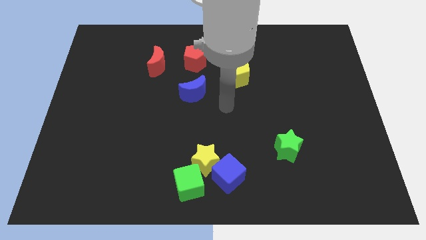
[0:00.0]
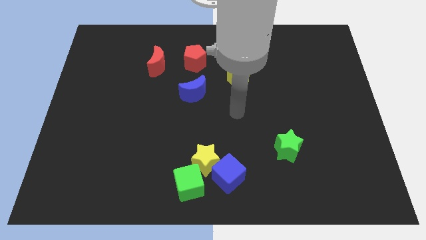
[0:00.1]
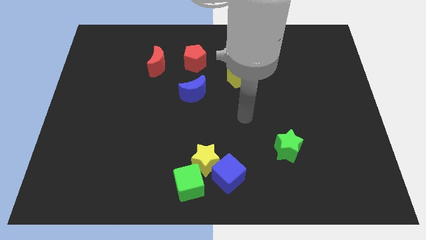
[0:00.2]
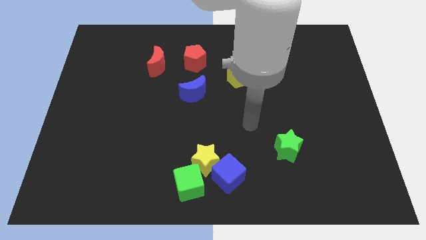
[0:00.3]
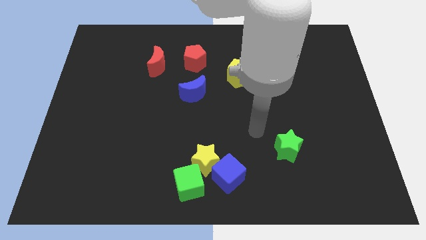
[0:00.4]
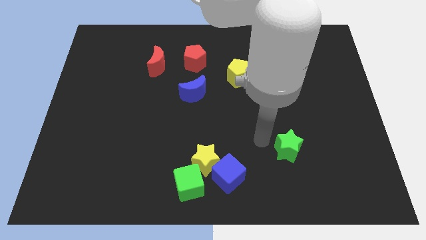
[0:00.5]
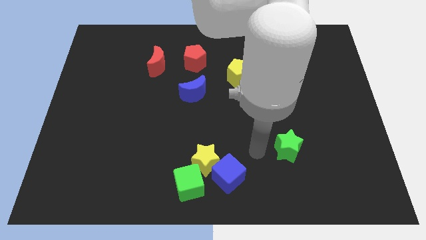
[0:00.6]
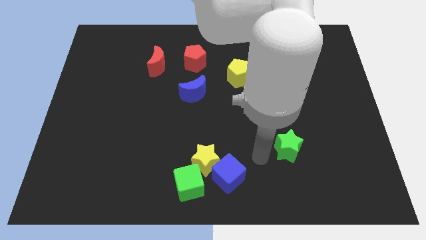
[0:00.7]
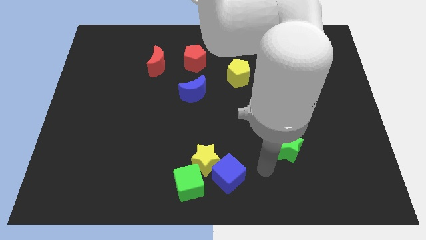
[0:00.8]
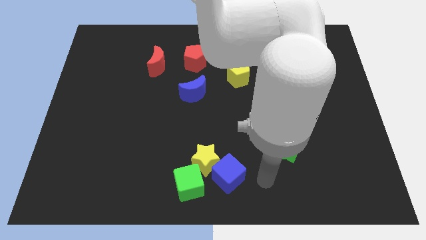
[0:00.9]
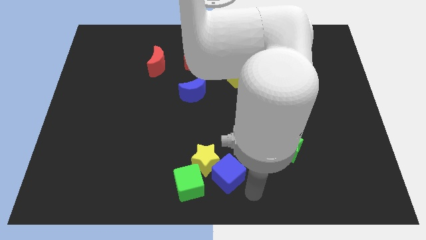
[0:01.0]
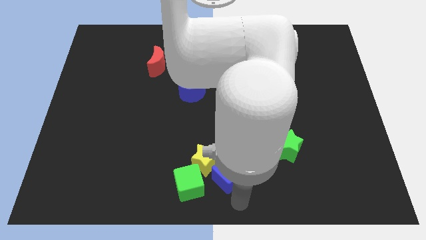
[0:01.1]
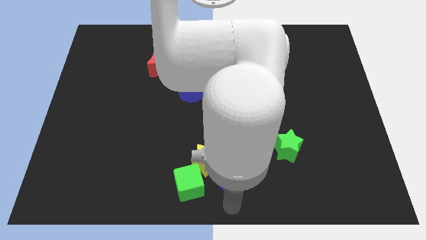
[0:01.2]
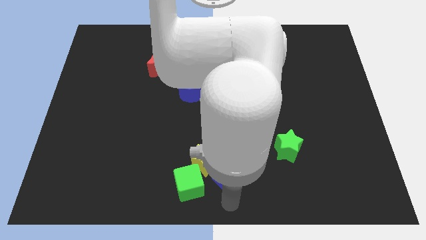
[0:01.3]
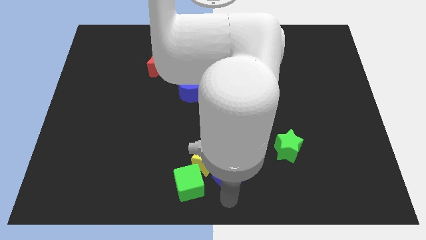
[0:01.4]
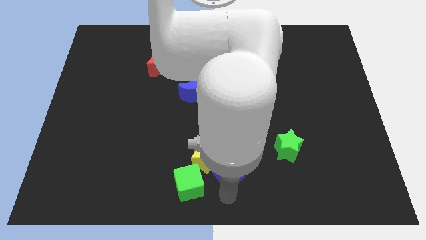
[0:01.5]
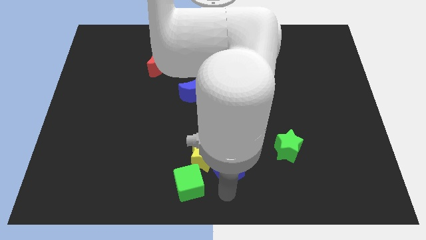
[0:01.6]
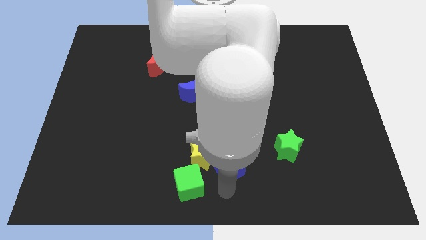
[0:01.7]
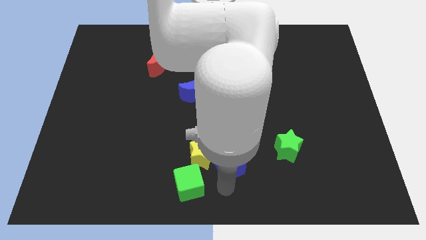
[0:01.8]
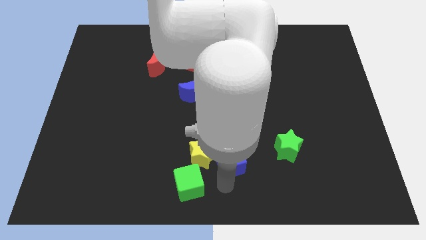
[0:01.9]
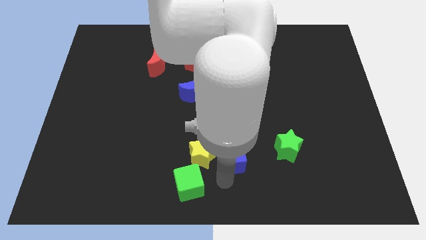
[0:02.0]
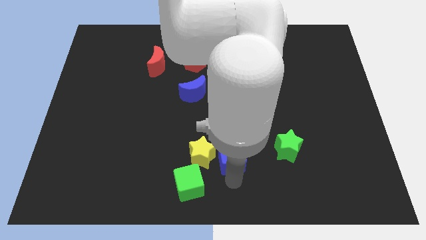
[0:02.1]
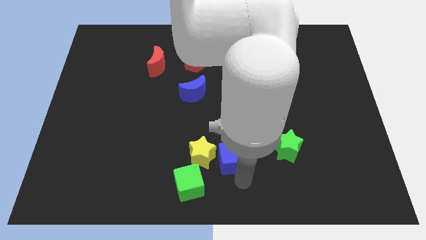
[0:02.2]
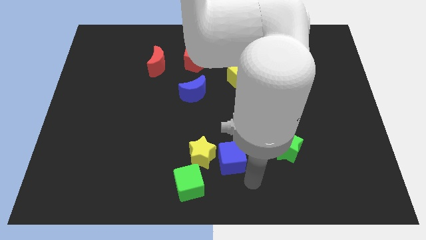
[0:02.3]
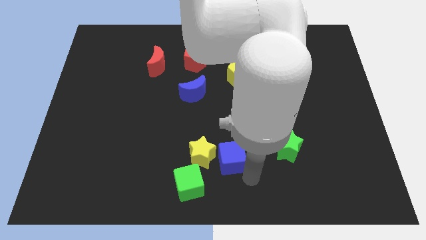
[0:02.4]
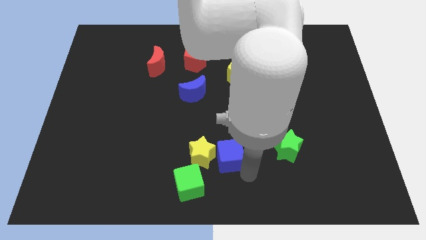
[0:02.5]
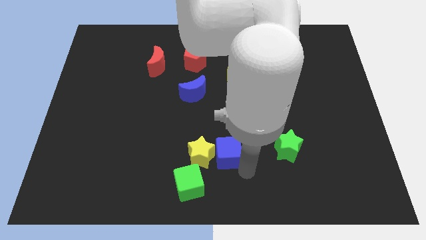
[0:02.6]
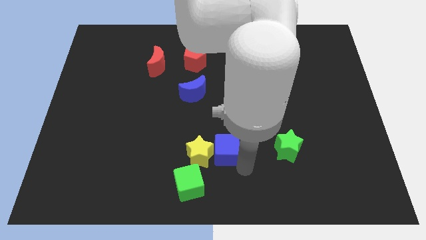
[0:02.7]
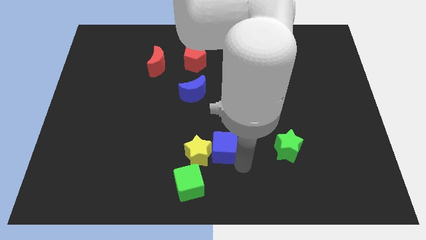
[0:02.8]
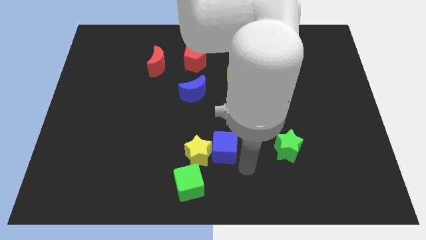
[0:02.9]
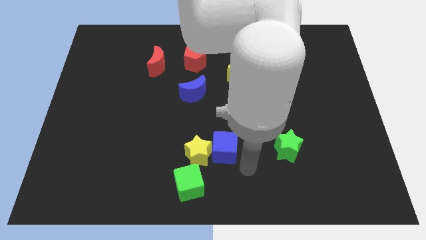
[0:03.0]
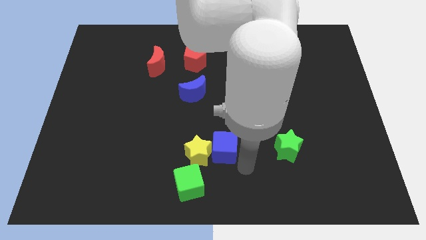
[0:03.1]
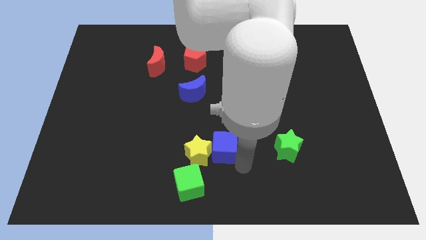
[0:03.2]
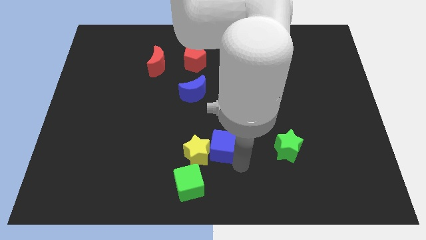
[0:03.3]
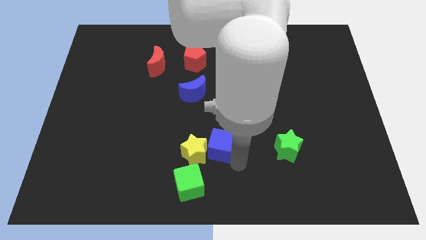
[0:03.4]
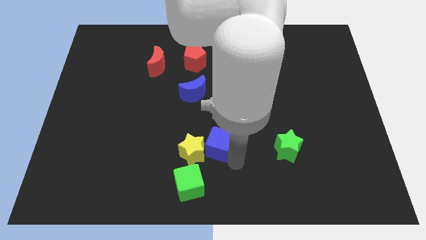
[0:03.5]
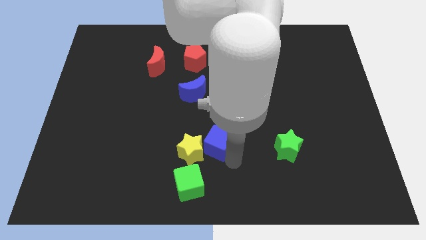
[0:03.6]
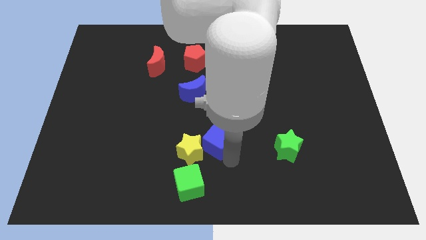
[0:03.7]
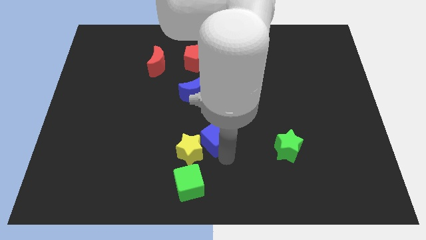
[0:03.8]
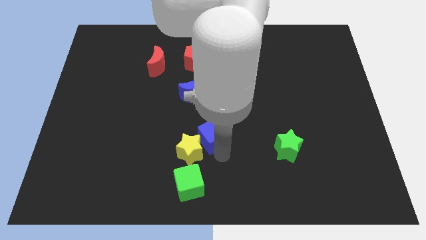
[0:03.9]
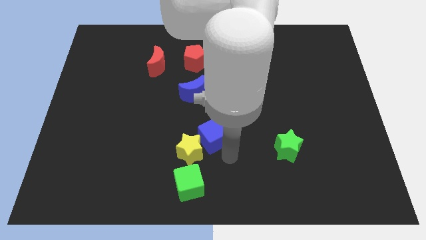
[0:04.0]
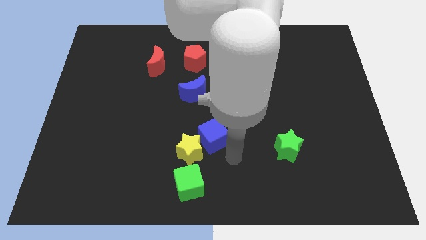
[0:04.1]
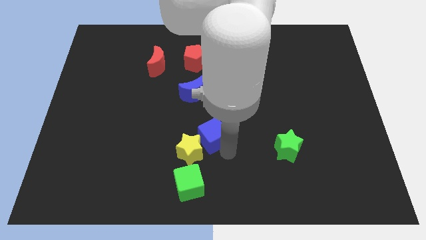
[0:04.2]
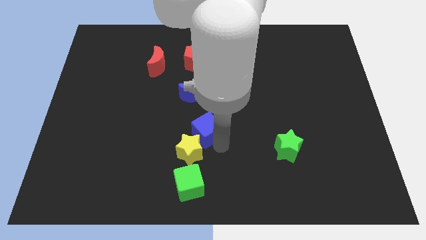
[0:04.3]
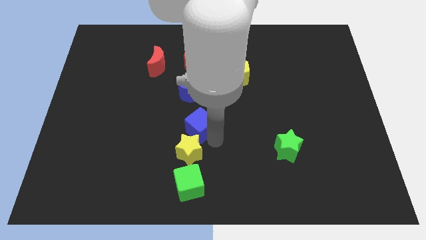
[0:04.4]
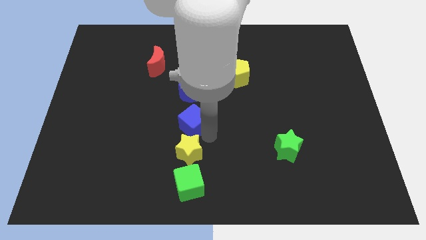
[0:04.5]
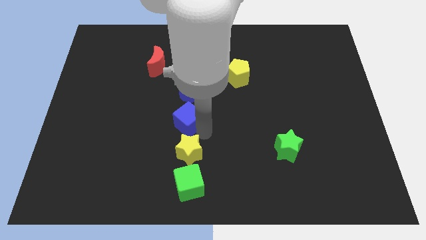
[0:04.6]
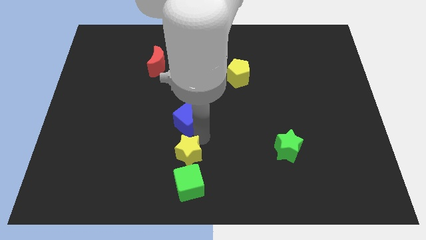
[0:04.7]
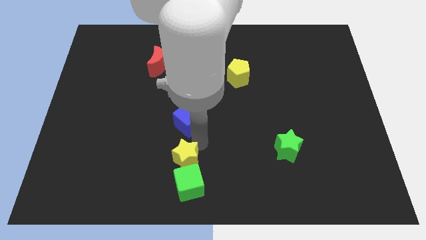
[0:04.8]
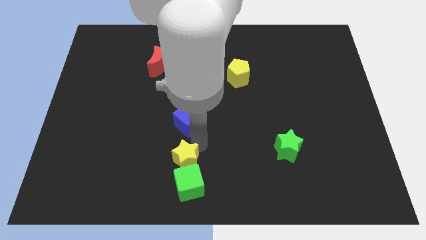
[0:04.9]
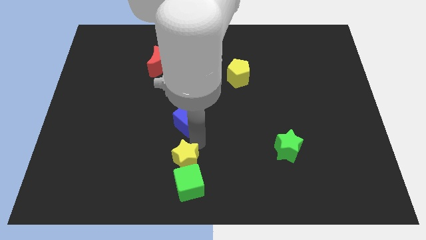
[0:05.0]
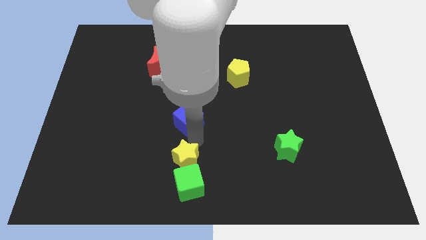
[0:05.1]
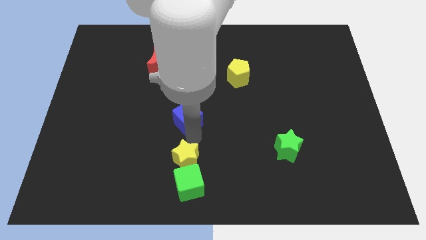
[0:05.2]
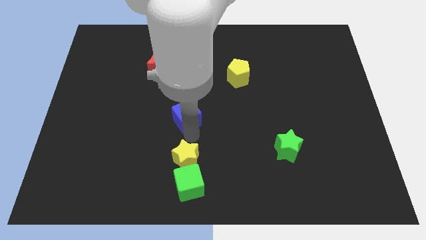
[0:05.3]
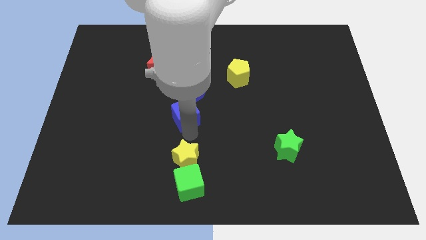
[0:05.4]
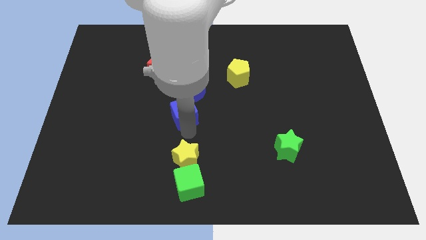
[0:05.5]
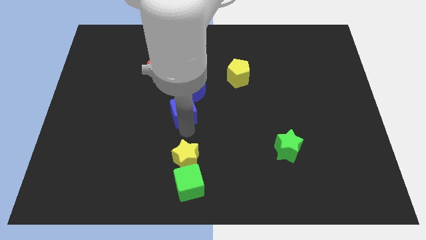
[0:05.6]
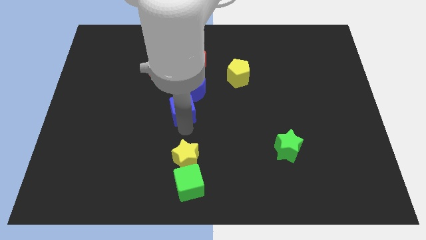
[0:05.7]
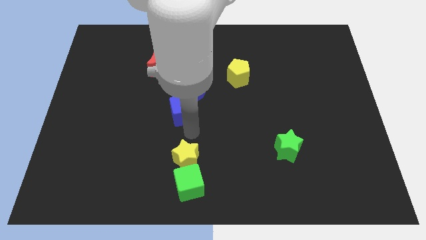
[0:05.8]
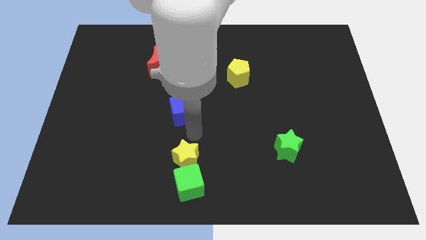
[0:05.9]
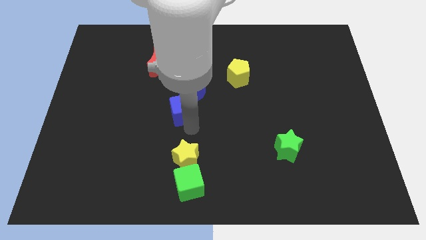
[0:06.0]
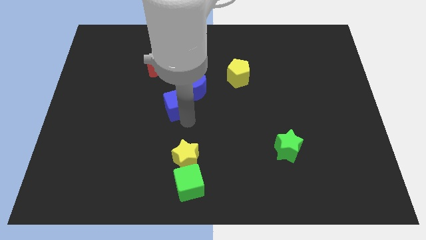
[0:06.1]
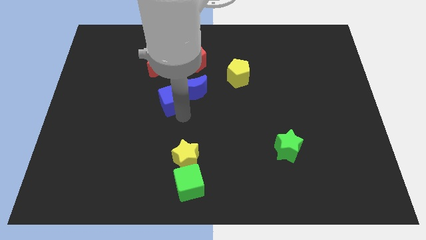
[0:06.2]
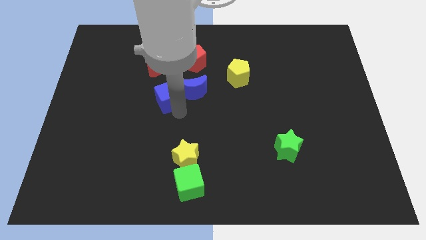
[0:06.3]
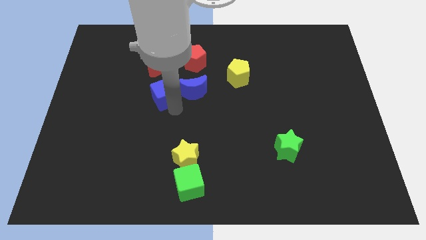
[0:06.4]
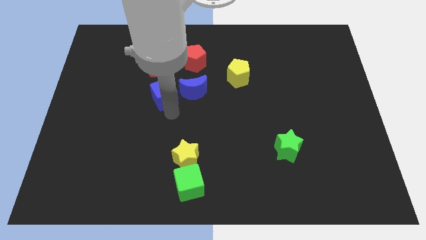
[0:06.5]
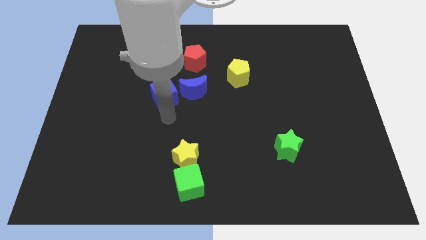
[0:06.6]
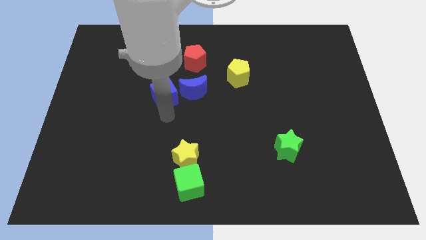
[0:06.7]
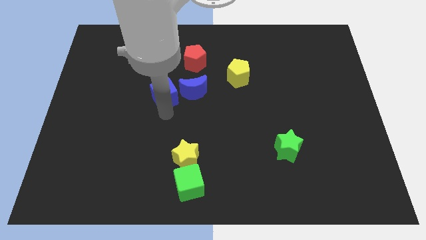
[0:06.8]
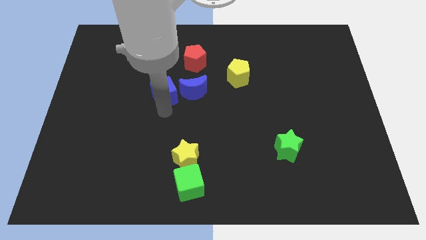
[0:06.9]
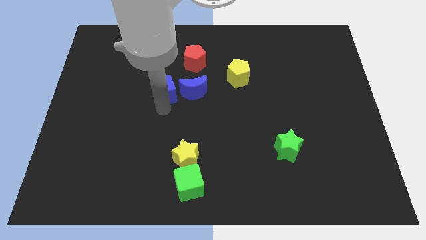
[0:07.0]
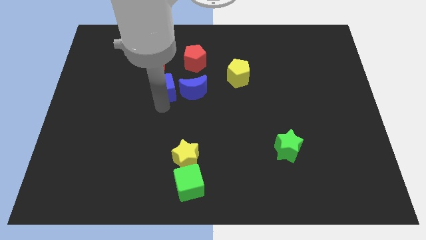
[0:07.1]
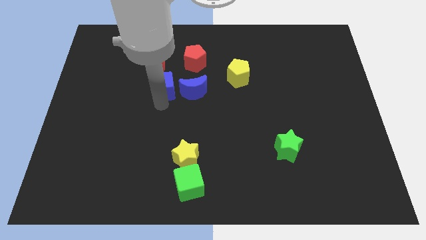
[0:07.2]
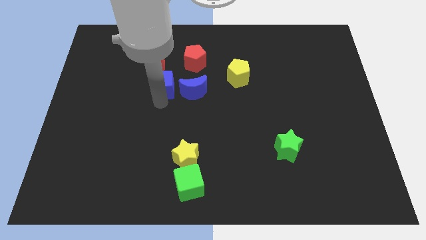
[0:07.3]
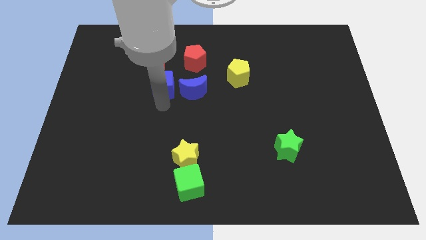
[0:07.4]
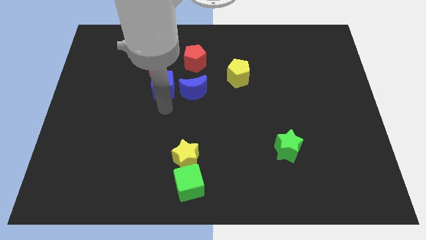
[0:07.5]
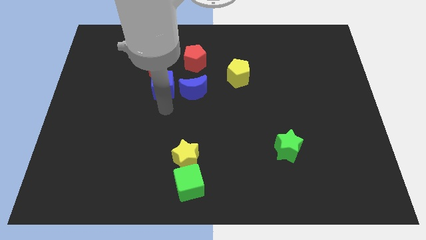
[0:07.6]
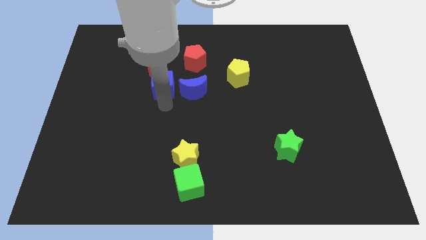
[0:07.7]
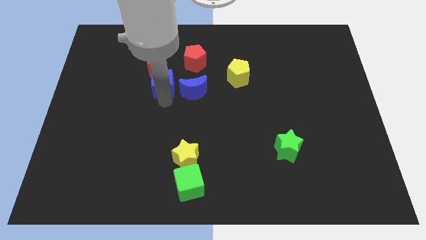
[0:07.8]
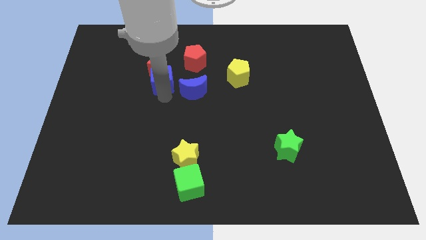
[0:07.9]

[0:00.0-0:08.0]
move the blue cube towards the red moon
